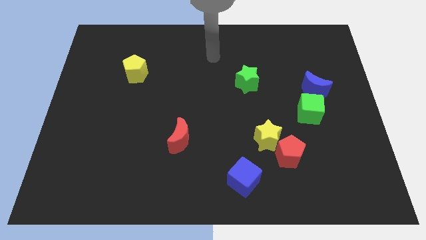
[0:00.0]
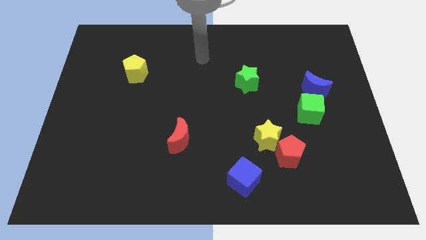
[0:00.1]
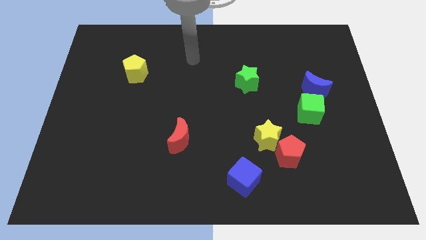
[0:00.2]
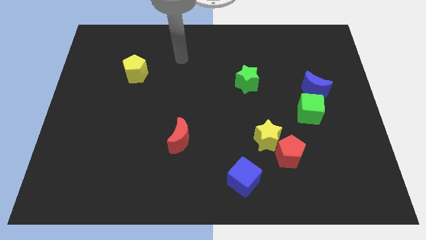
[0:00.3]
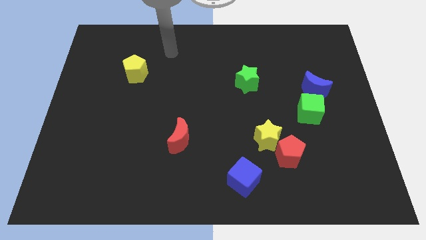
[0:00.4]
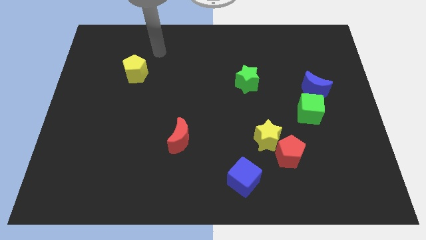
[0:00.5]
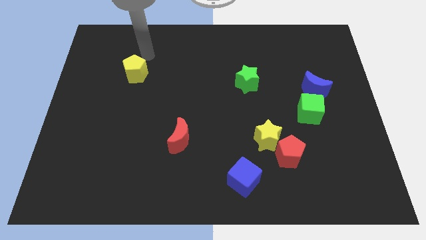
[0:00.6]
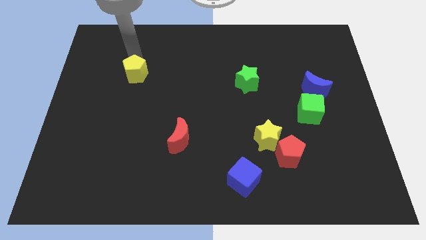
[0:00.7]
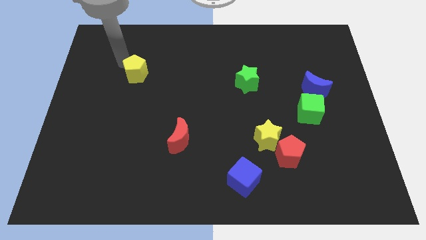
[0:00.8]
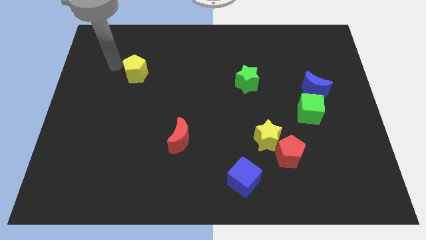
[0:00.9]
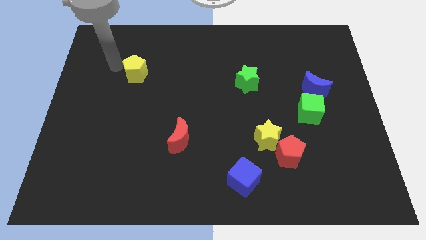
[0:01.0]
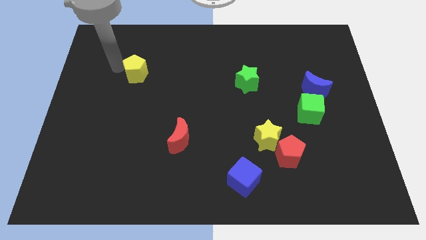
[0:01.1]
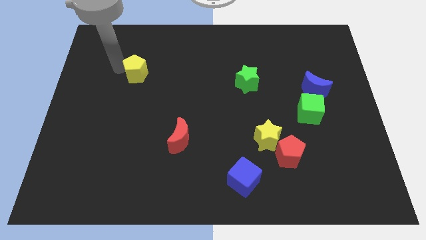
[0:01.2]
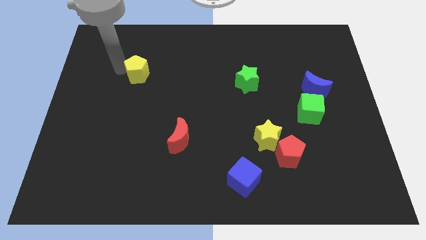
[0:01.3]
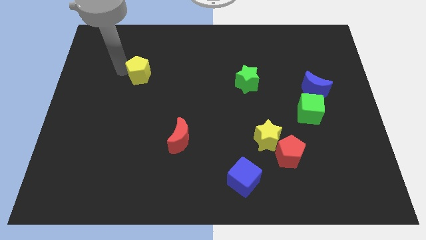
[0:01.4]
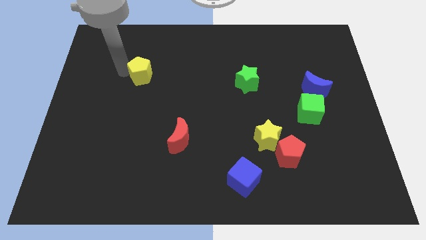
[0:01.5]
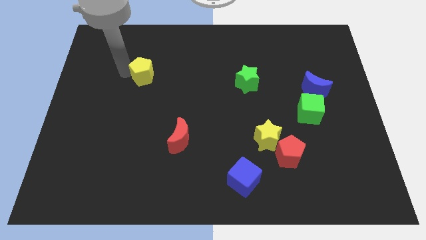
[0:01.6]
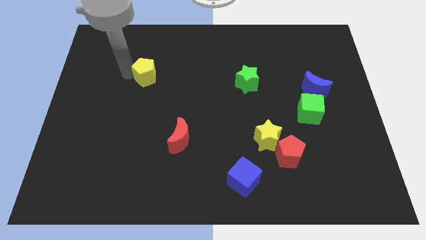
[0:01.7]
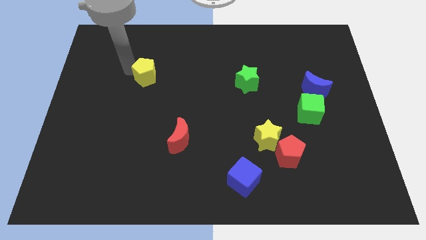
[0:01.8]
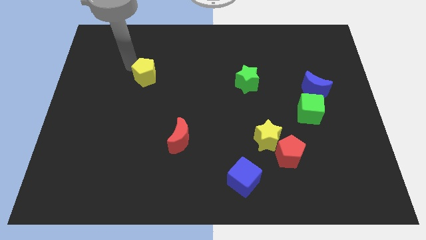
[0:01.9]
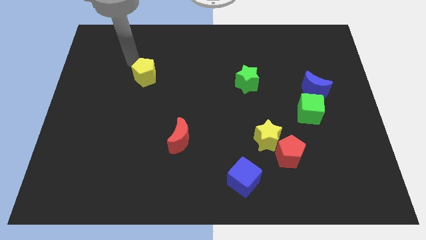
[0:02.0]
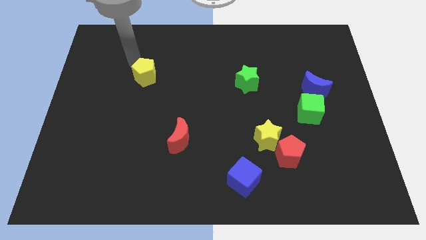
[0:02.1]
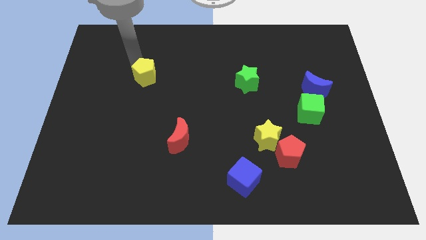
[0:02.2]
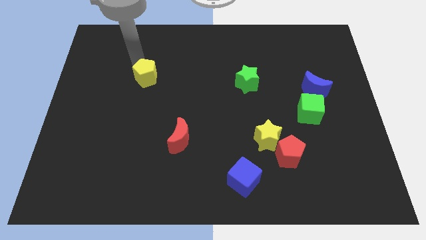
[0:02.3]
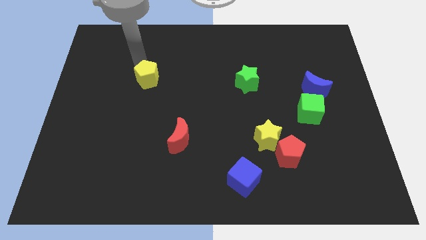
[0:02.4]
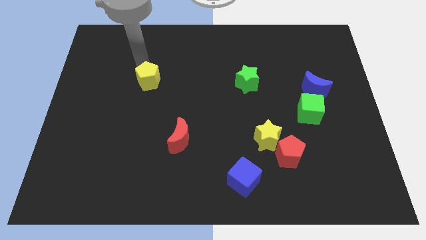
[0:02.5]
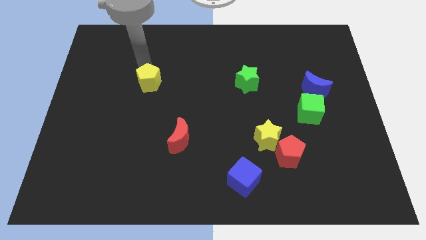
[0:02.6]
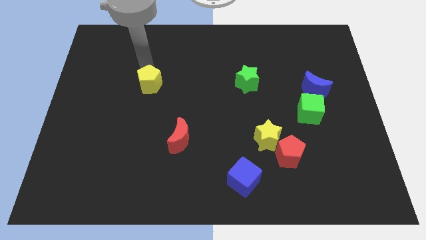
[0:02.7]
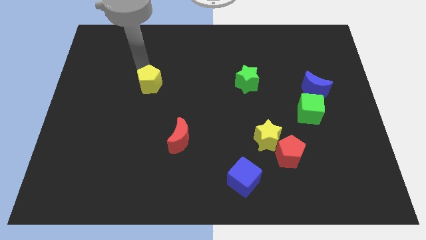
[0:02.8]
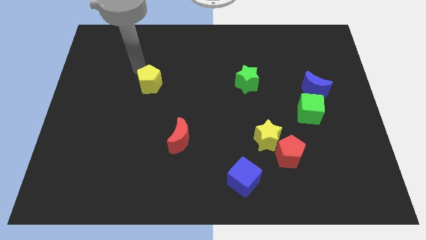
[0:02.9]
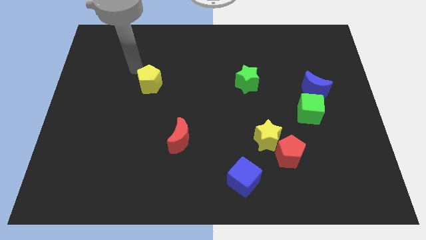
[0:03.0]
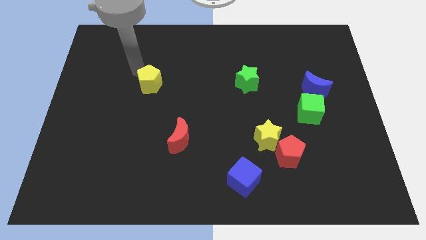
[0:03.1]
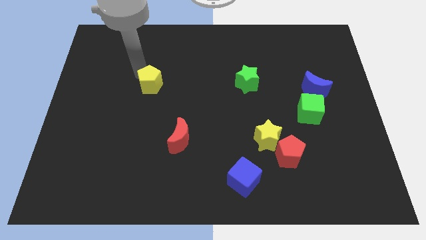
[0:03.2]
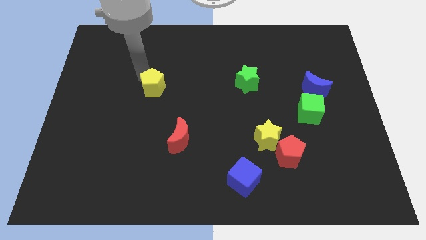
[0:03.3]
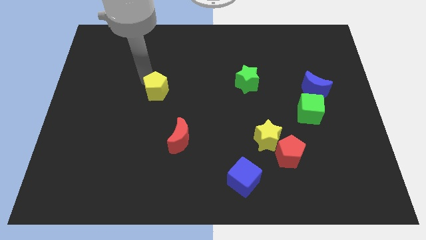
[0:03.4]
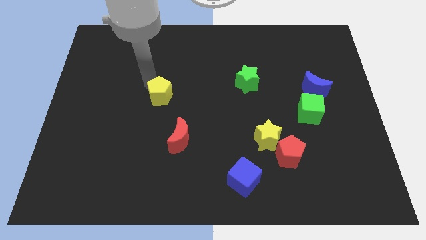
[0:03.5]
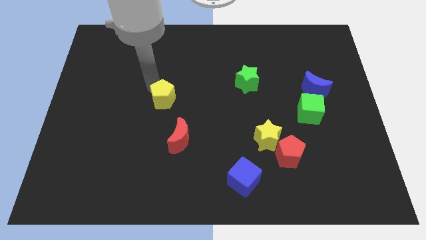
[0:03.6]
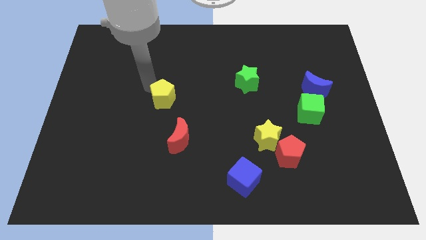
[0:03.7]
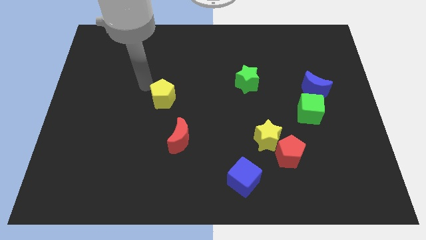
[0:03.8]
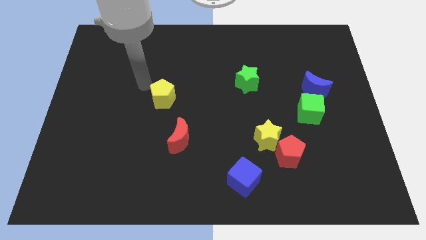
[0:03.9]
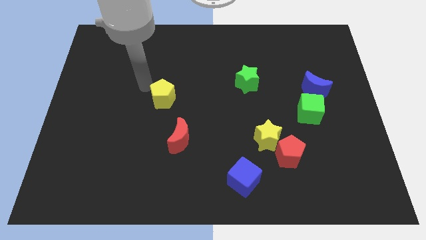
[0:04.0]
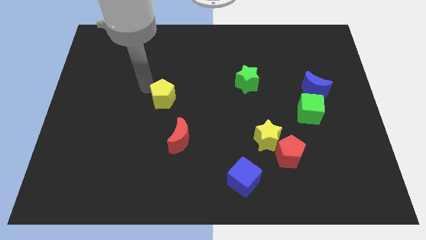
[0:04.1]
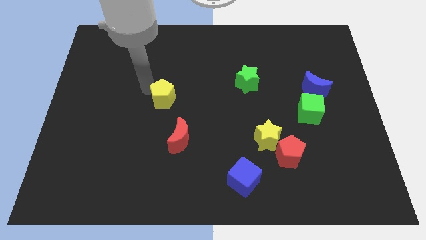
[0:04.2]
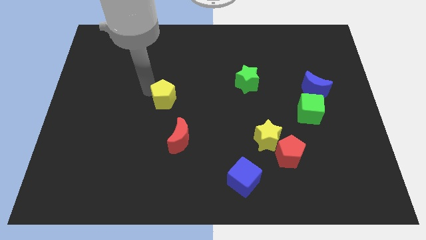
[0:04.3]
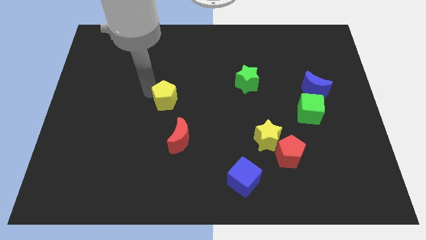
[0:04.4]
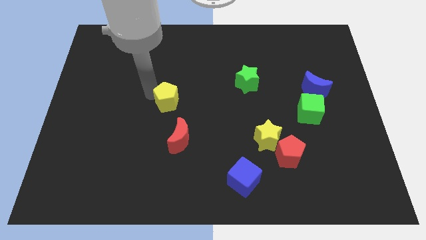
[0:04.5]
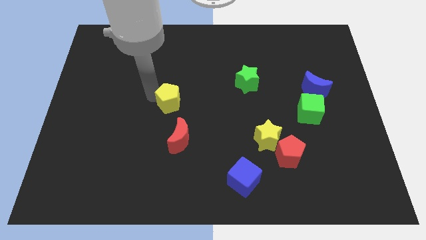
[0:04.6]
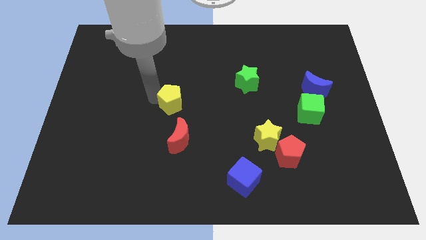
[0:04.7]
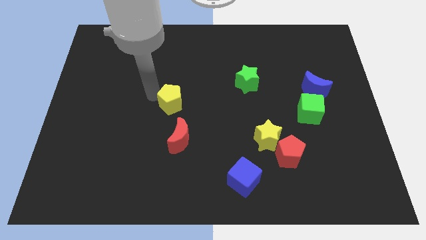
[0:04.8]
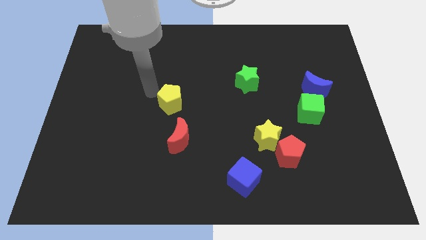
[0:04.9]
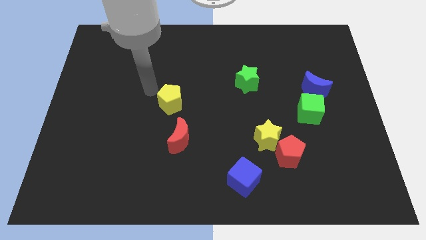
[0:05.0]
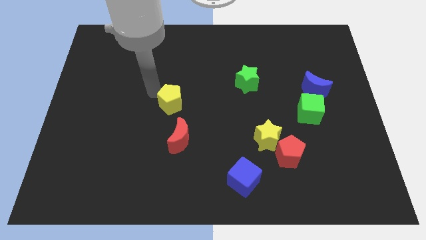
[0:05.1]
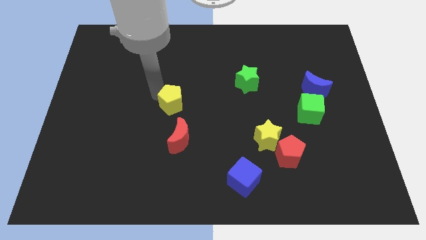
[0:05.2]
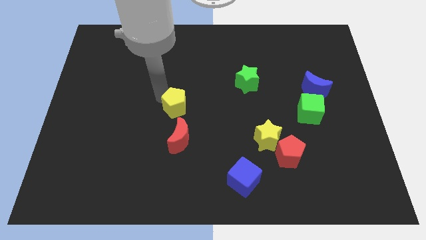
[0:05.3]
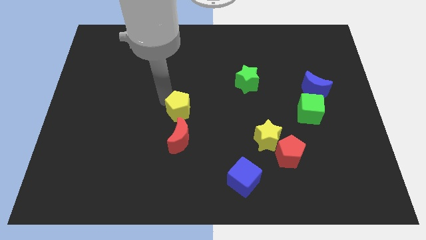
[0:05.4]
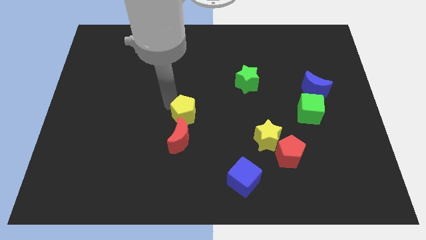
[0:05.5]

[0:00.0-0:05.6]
slide the yellow pentagon to the top right side of the red moon

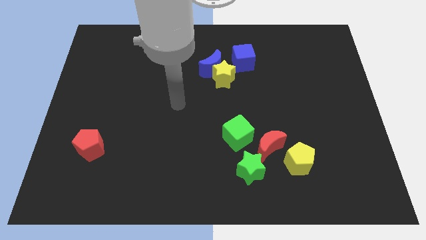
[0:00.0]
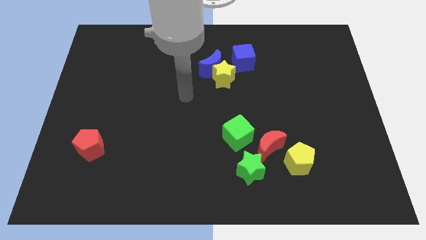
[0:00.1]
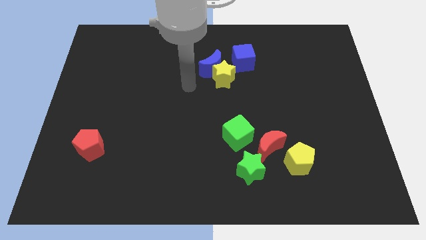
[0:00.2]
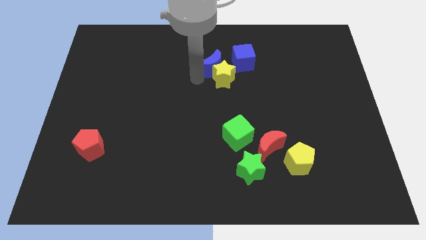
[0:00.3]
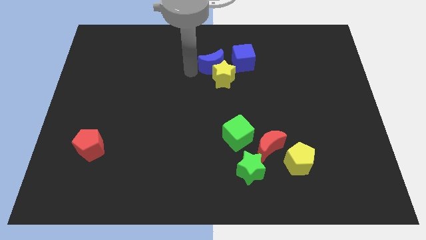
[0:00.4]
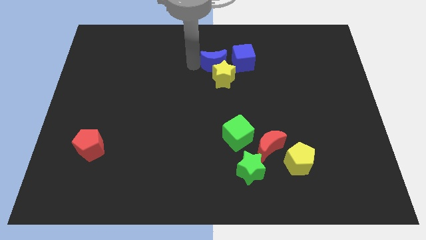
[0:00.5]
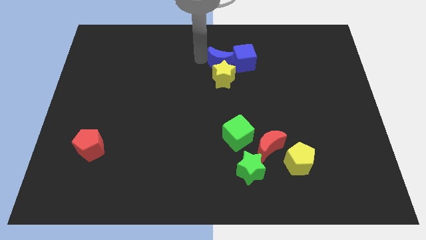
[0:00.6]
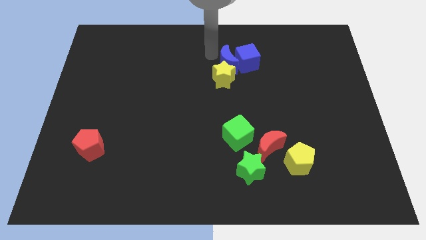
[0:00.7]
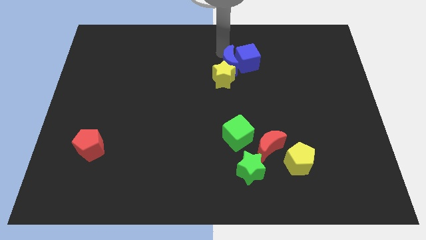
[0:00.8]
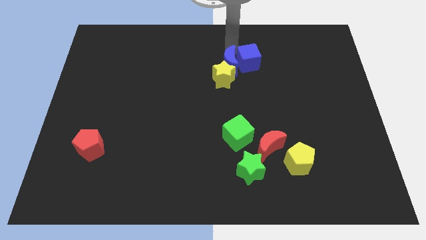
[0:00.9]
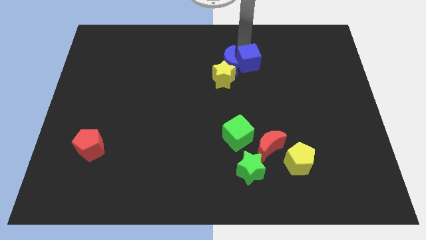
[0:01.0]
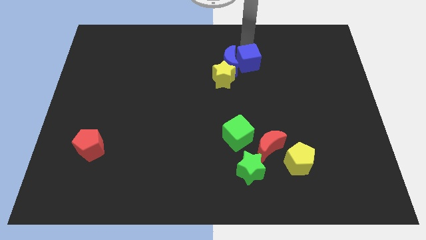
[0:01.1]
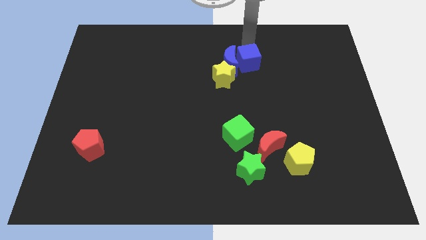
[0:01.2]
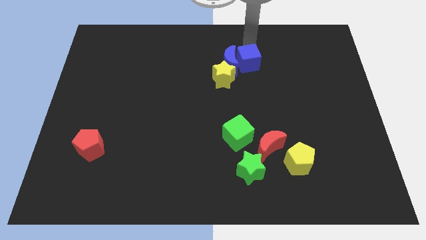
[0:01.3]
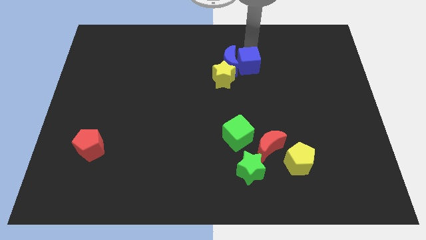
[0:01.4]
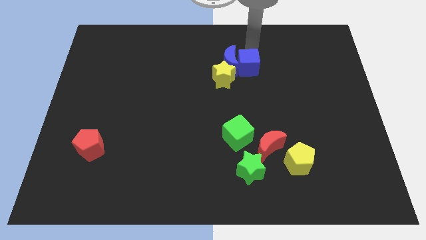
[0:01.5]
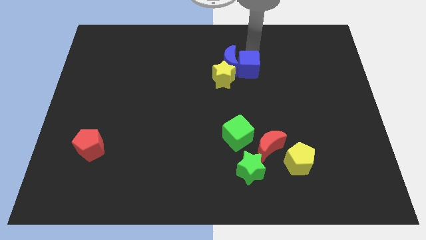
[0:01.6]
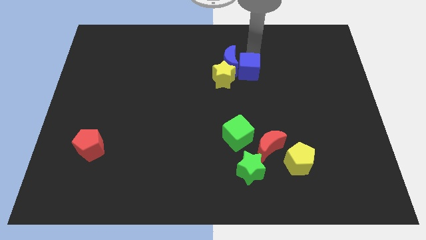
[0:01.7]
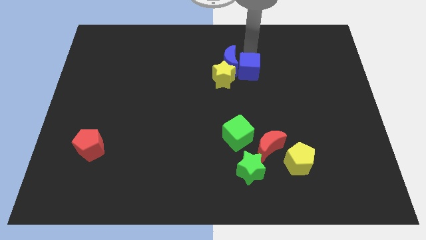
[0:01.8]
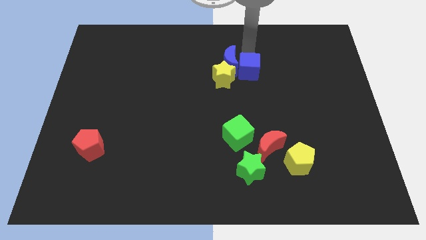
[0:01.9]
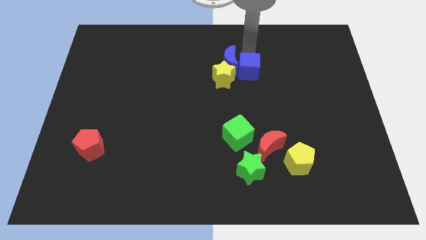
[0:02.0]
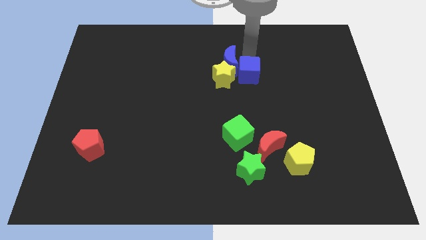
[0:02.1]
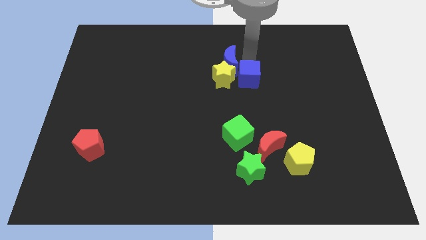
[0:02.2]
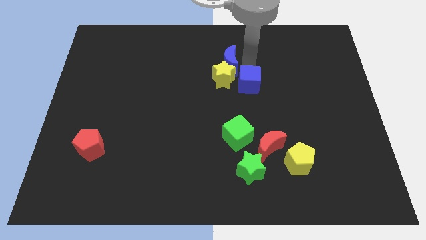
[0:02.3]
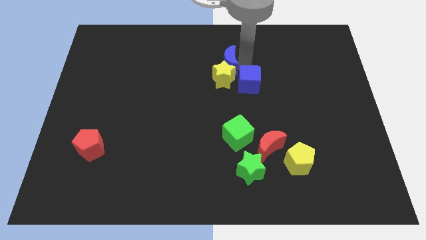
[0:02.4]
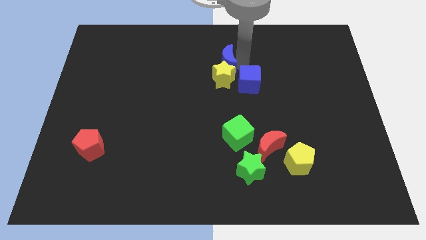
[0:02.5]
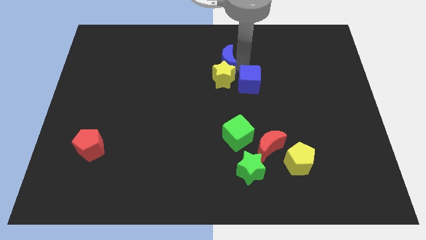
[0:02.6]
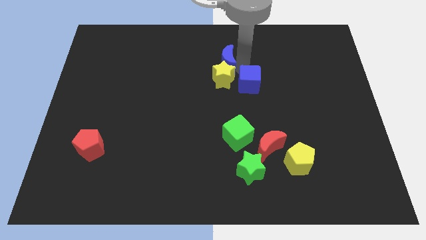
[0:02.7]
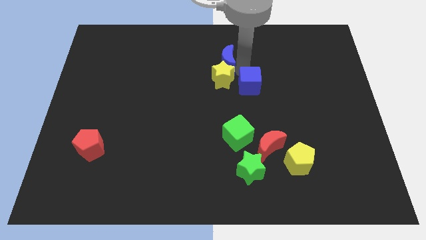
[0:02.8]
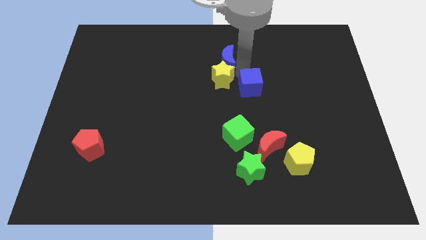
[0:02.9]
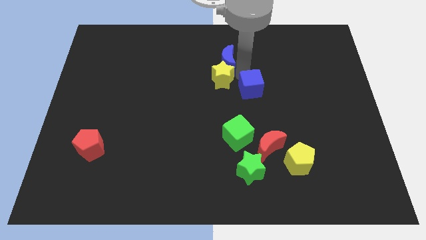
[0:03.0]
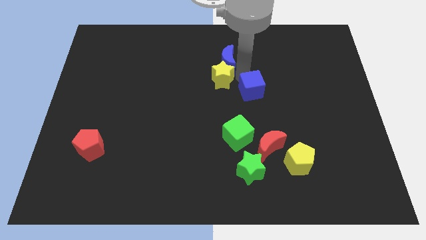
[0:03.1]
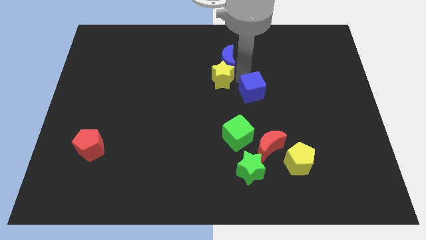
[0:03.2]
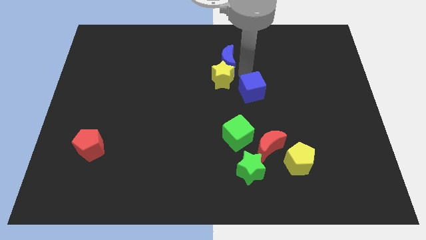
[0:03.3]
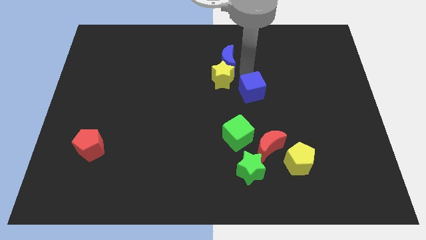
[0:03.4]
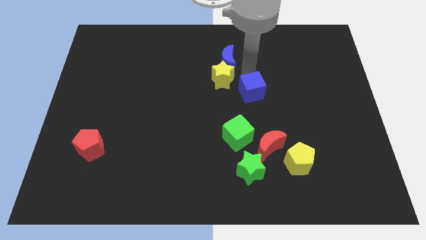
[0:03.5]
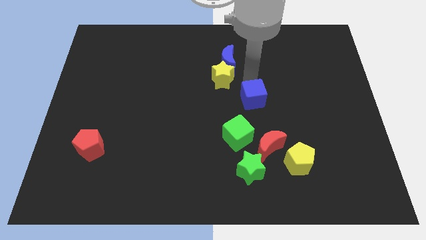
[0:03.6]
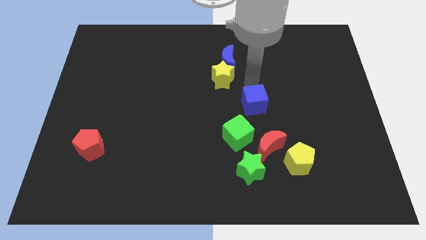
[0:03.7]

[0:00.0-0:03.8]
put the blue cube diagonally up and to the right of the green cube
